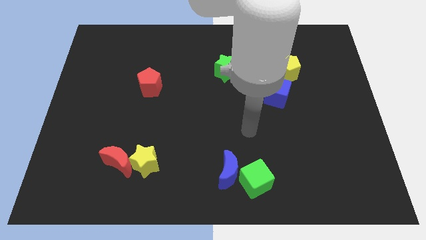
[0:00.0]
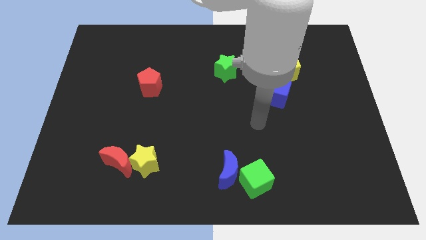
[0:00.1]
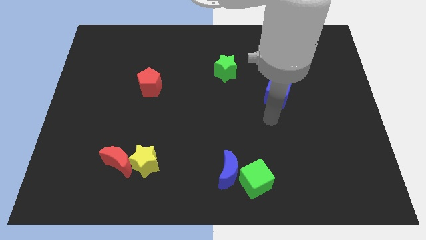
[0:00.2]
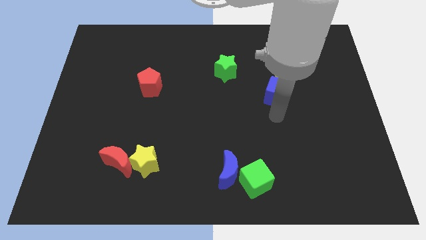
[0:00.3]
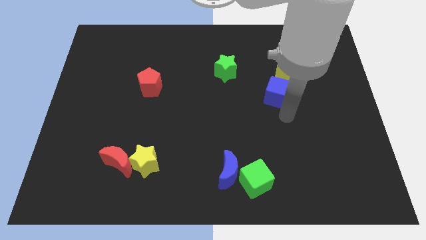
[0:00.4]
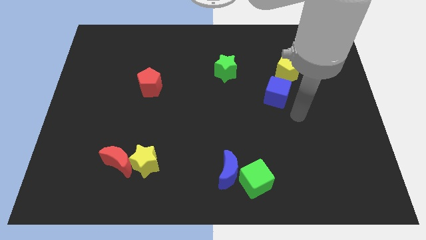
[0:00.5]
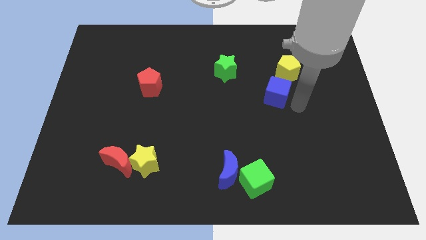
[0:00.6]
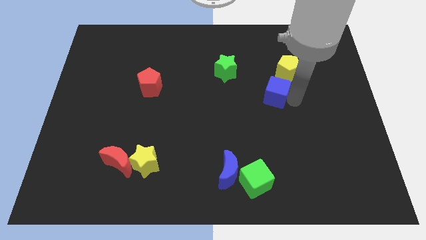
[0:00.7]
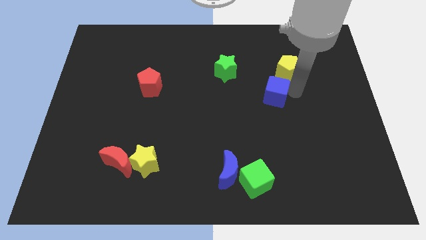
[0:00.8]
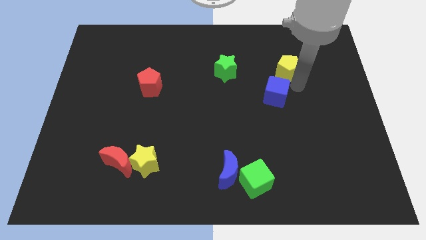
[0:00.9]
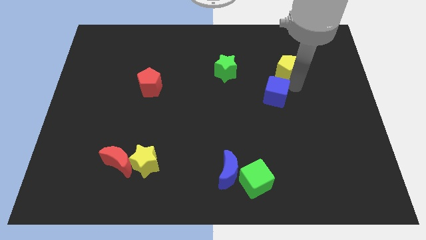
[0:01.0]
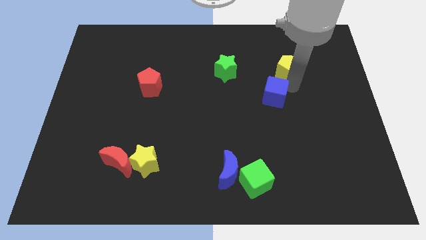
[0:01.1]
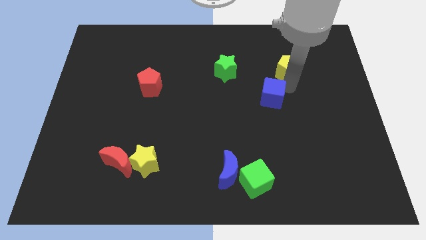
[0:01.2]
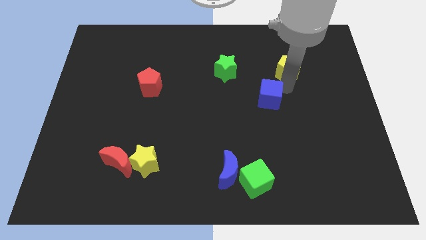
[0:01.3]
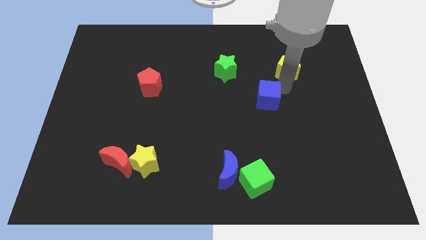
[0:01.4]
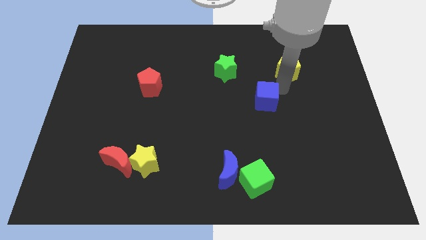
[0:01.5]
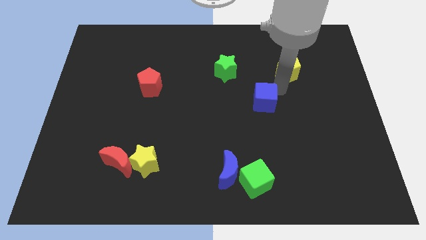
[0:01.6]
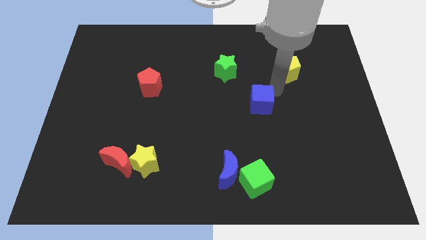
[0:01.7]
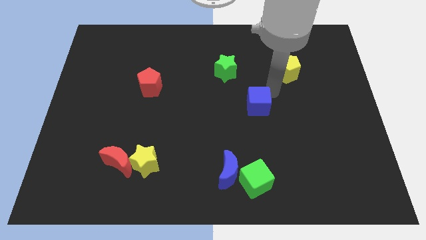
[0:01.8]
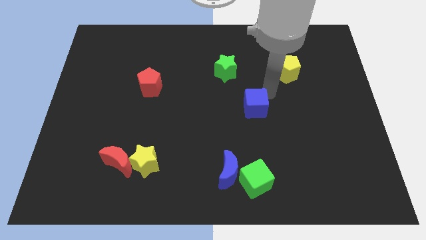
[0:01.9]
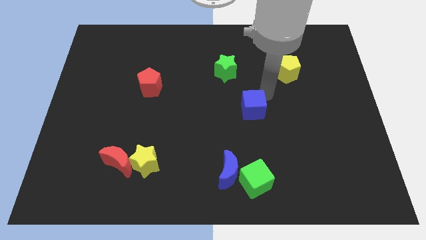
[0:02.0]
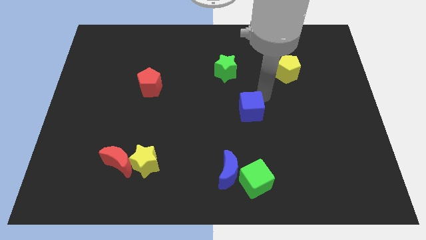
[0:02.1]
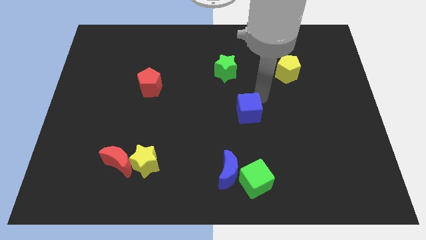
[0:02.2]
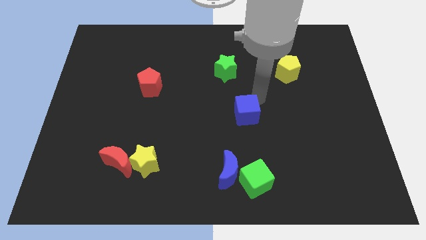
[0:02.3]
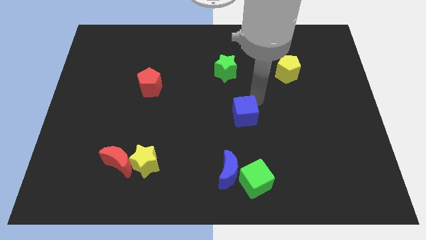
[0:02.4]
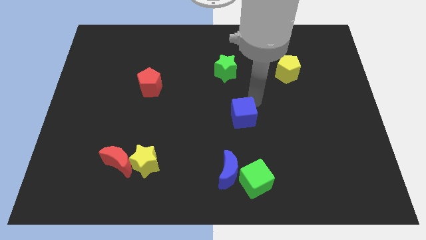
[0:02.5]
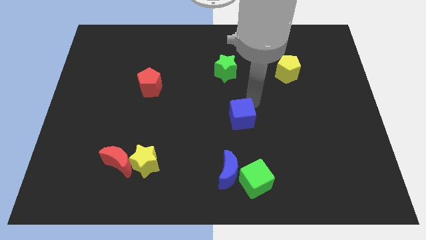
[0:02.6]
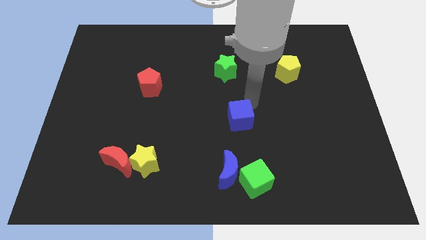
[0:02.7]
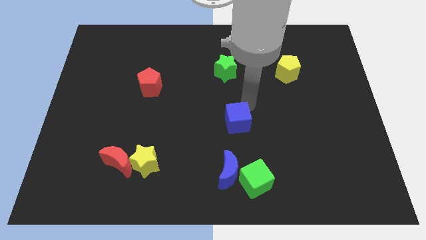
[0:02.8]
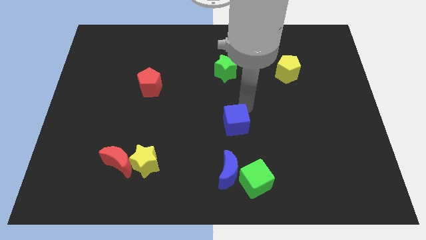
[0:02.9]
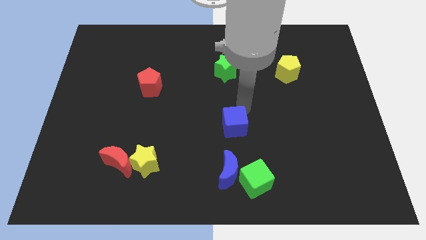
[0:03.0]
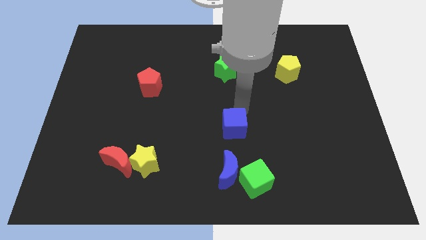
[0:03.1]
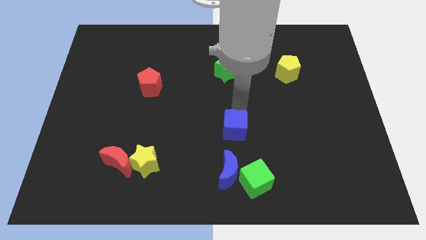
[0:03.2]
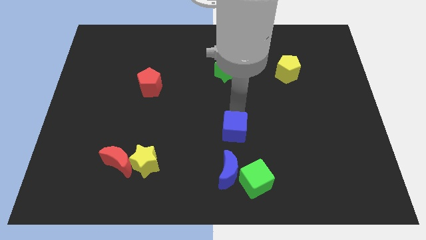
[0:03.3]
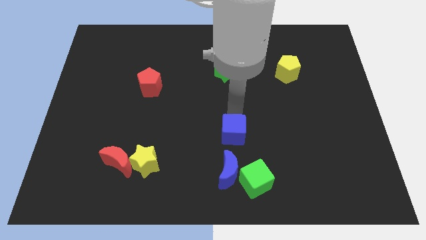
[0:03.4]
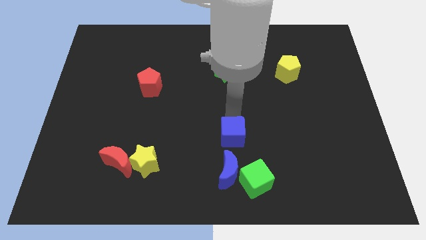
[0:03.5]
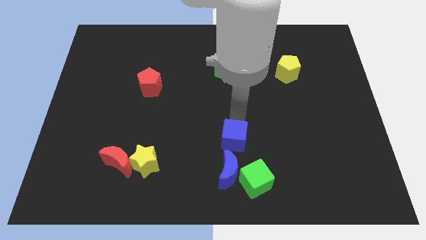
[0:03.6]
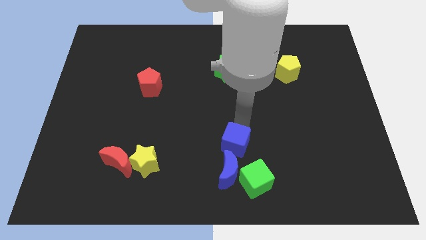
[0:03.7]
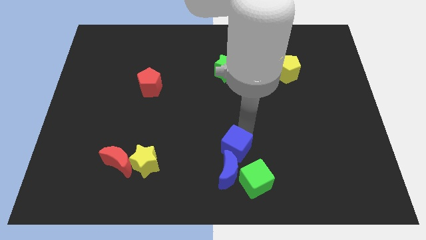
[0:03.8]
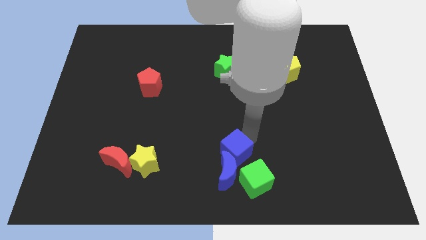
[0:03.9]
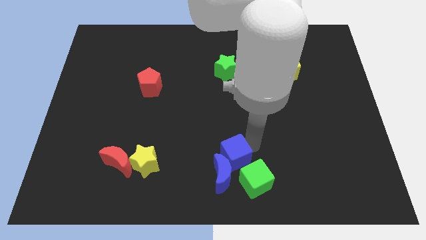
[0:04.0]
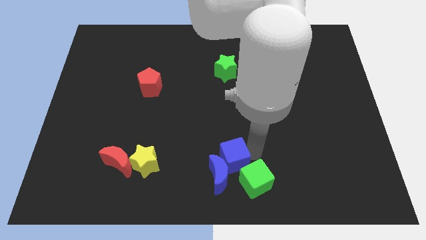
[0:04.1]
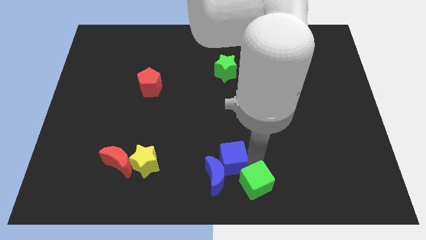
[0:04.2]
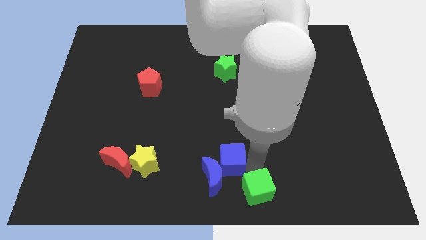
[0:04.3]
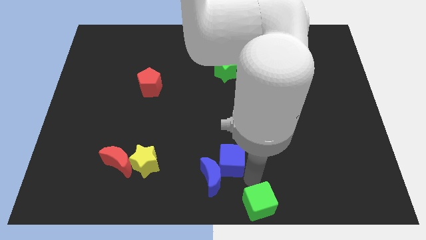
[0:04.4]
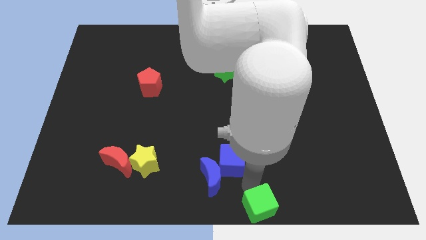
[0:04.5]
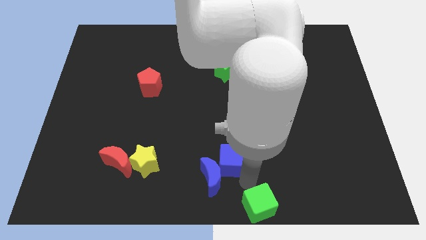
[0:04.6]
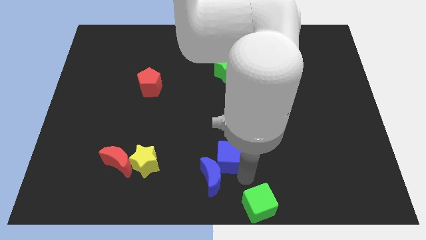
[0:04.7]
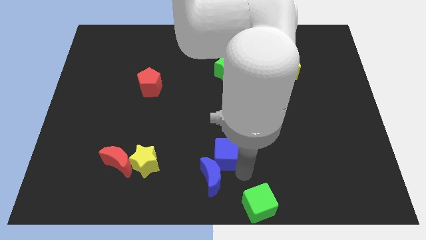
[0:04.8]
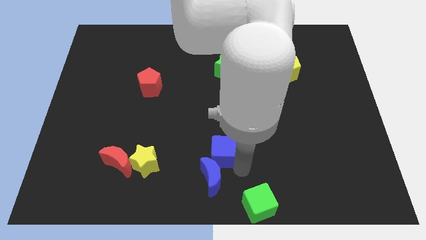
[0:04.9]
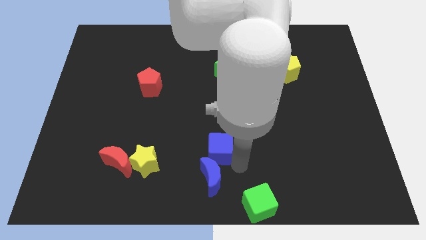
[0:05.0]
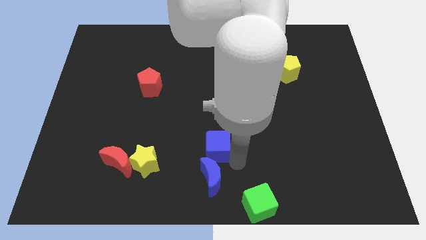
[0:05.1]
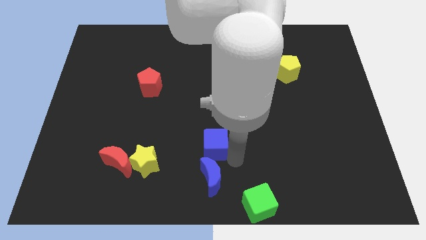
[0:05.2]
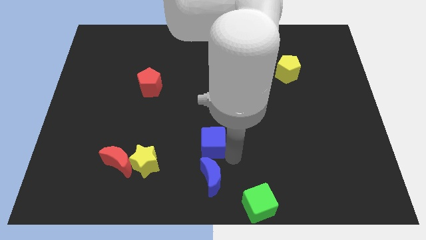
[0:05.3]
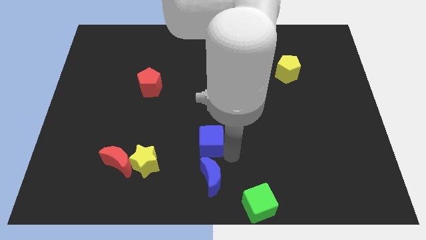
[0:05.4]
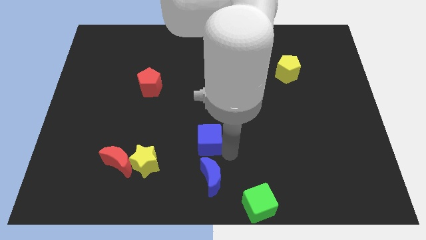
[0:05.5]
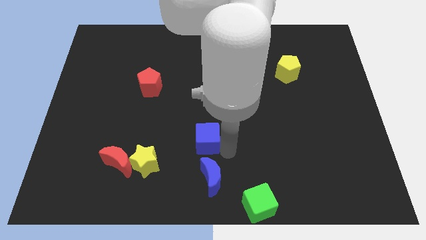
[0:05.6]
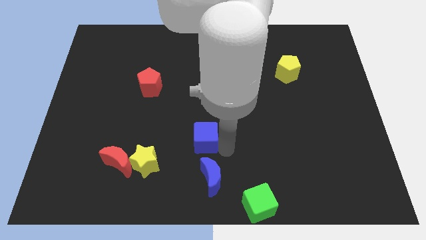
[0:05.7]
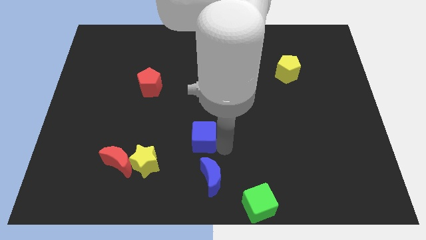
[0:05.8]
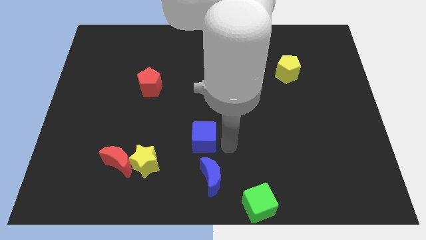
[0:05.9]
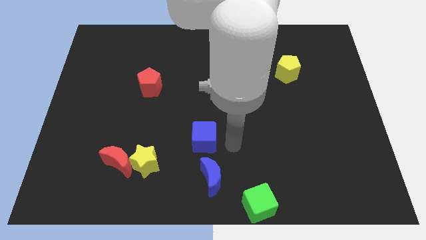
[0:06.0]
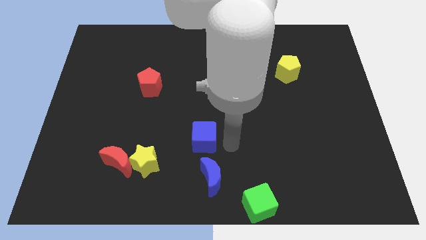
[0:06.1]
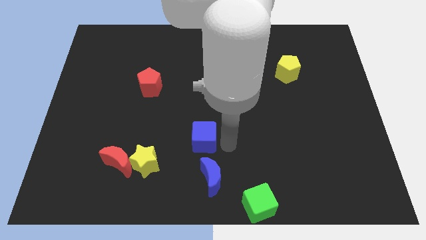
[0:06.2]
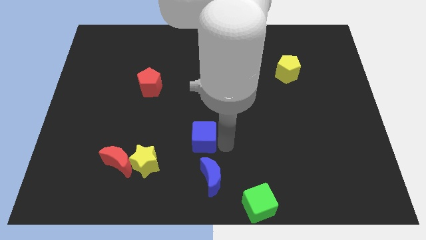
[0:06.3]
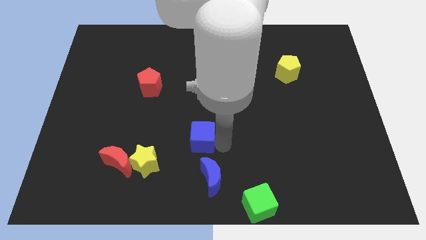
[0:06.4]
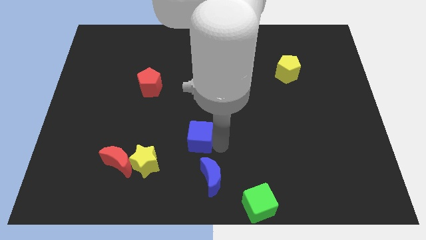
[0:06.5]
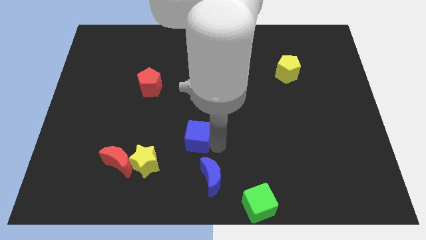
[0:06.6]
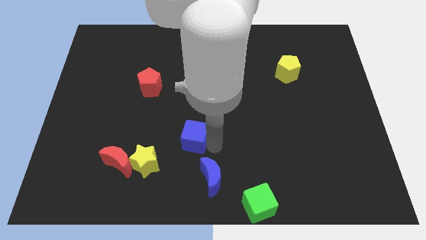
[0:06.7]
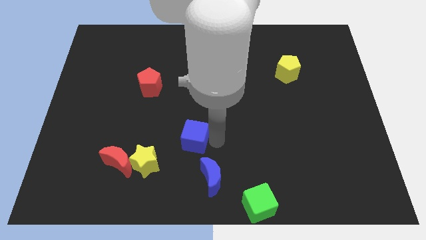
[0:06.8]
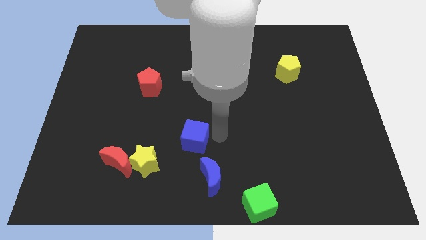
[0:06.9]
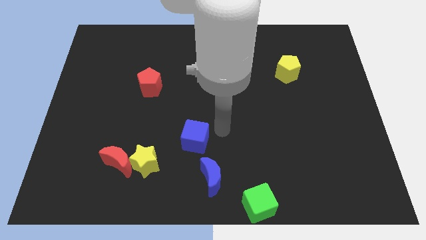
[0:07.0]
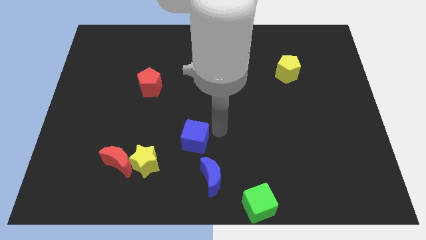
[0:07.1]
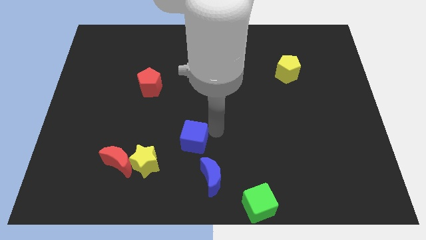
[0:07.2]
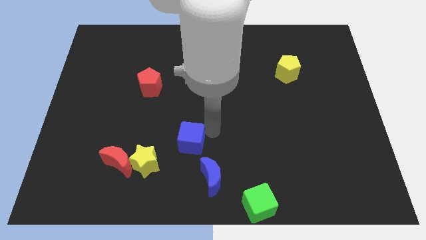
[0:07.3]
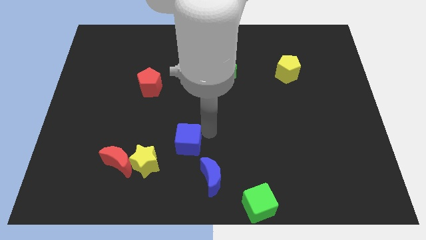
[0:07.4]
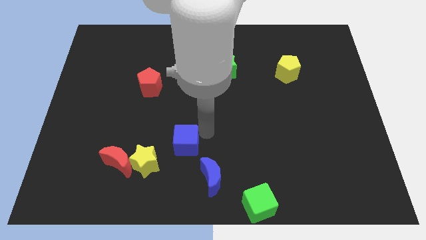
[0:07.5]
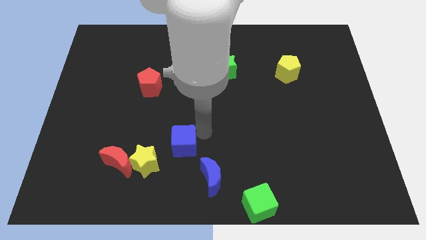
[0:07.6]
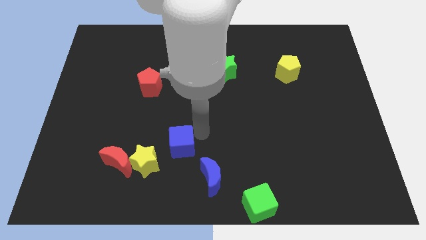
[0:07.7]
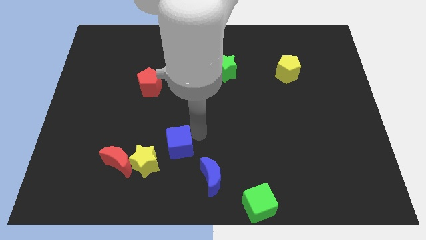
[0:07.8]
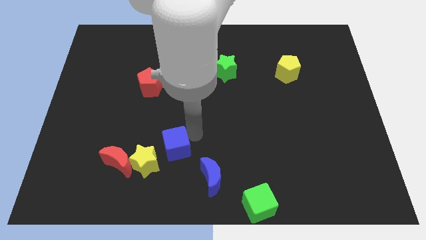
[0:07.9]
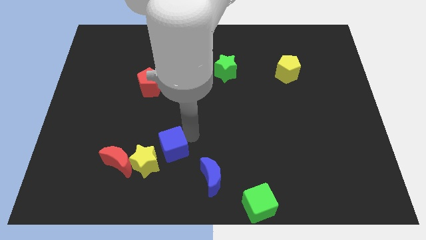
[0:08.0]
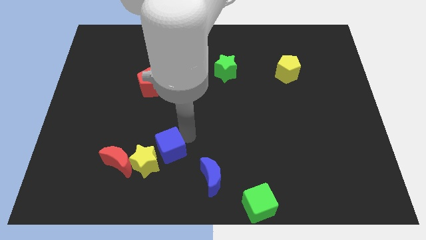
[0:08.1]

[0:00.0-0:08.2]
put the blue cube to the yellow star
